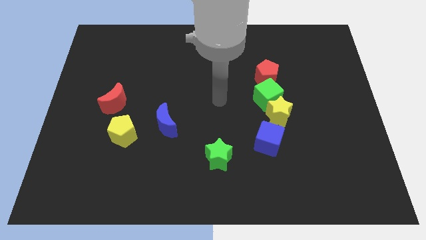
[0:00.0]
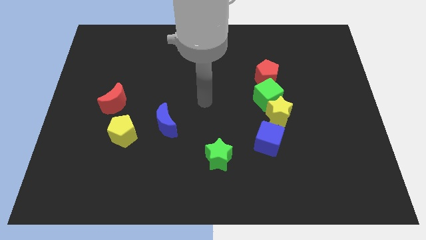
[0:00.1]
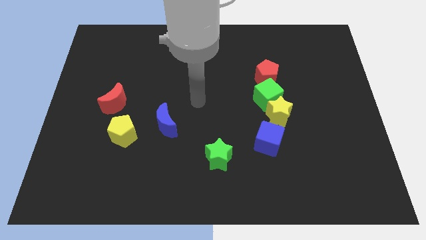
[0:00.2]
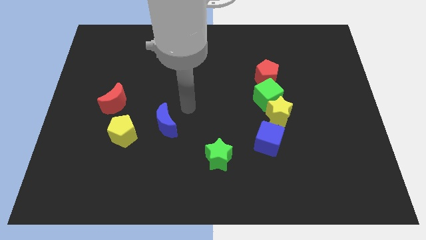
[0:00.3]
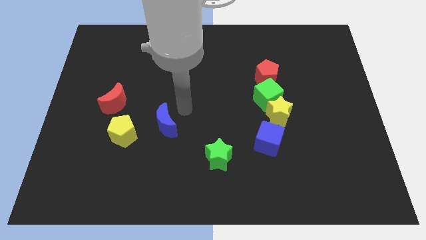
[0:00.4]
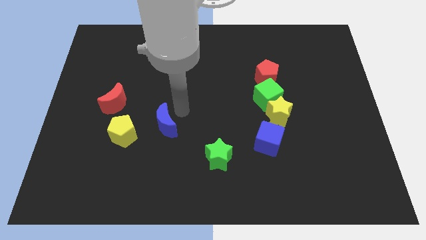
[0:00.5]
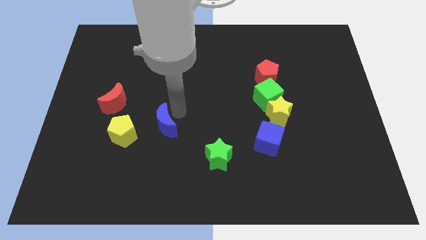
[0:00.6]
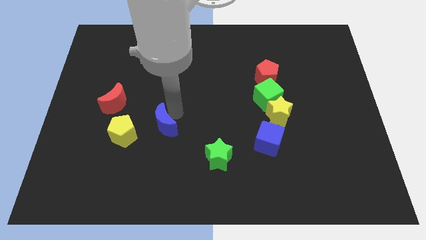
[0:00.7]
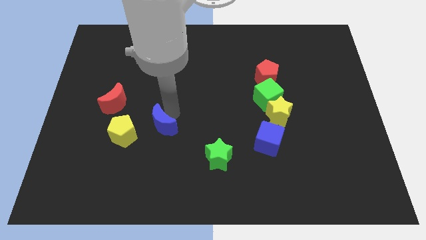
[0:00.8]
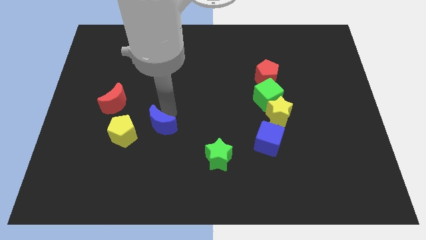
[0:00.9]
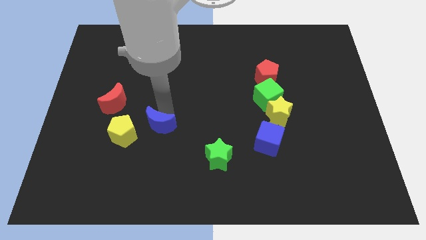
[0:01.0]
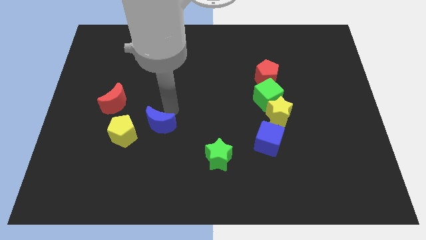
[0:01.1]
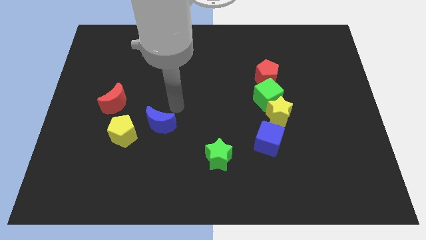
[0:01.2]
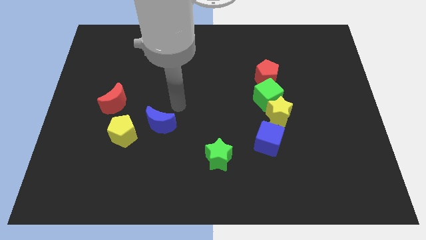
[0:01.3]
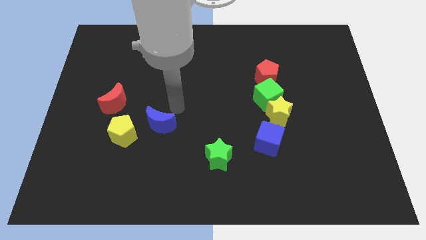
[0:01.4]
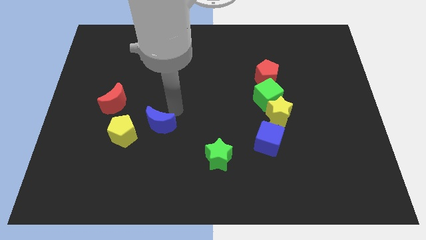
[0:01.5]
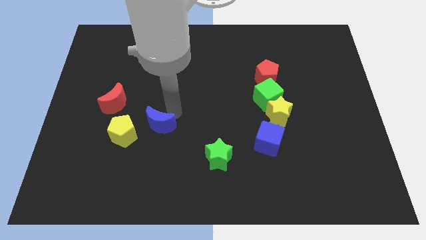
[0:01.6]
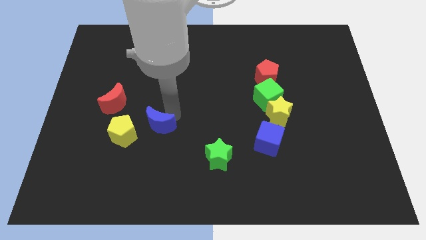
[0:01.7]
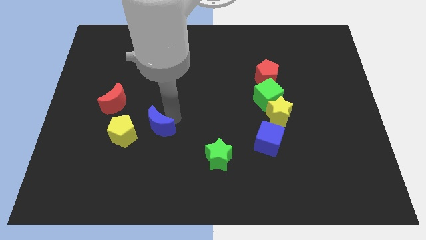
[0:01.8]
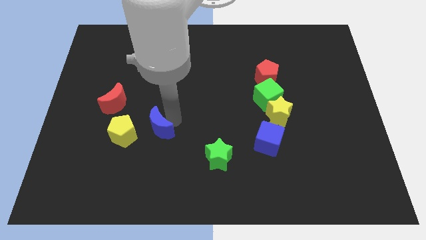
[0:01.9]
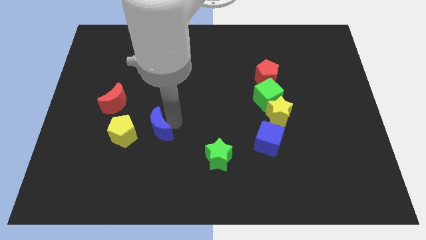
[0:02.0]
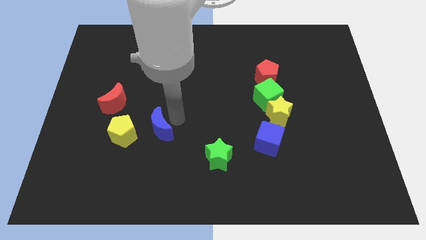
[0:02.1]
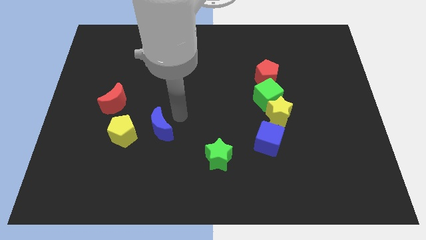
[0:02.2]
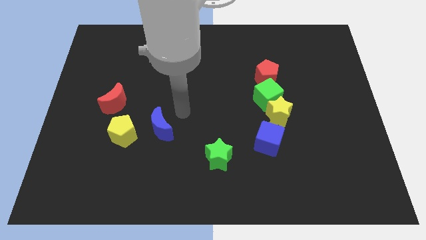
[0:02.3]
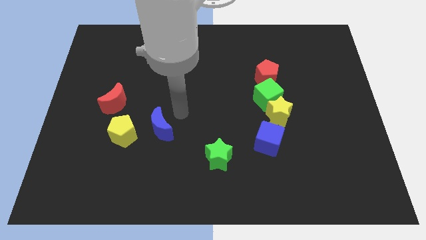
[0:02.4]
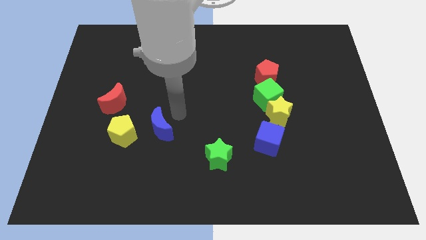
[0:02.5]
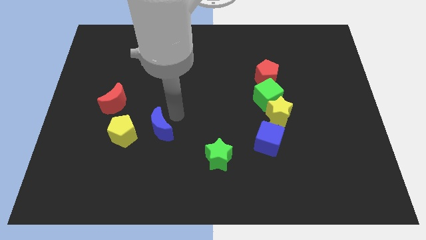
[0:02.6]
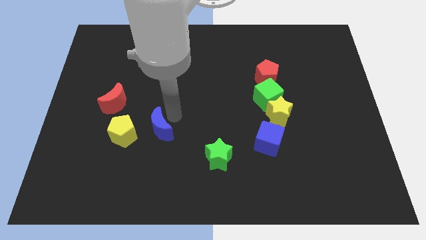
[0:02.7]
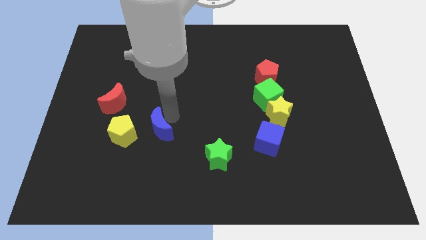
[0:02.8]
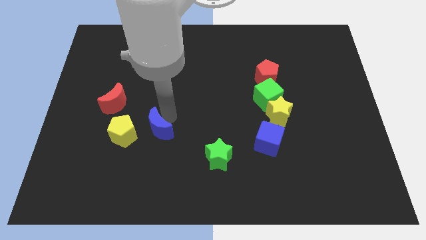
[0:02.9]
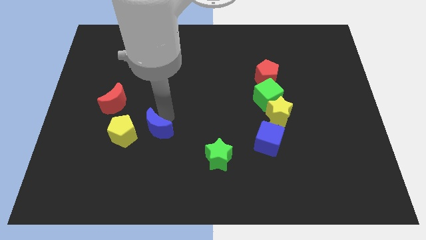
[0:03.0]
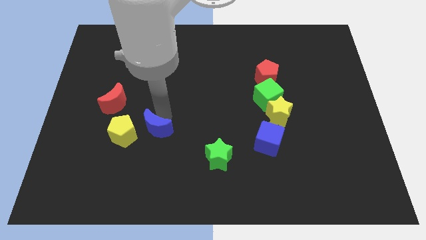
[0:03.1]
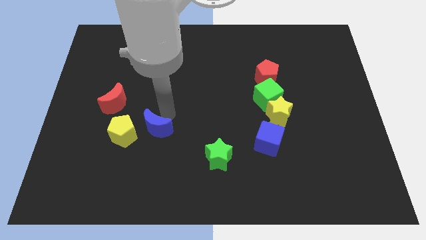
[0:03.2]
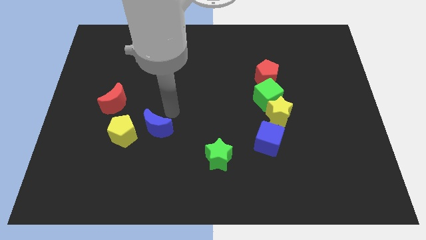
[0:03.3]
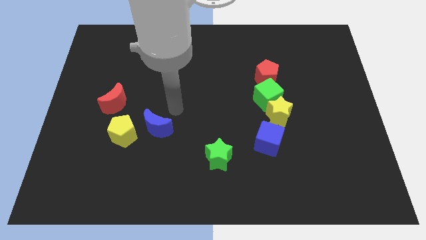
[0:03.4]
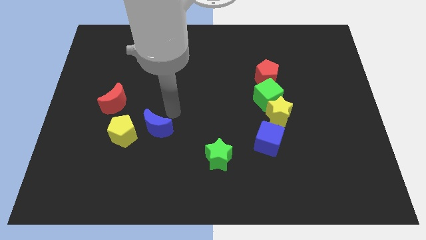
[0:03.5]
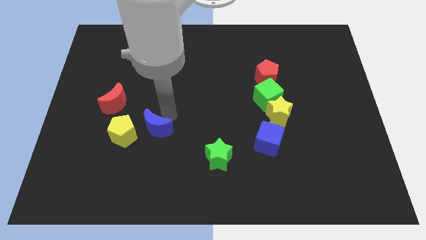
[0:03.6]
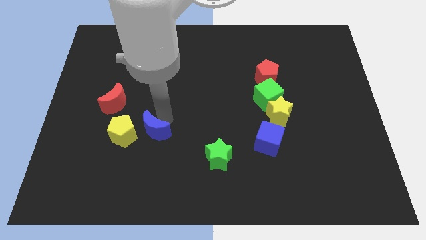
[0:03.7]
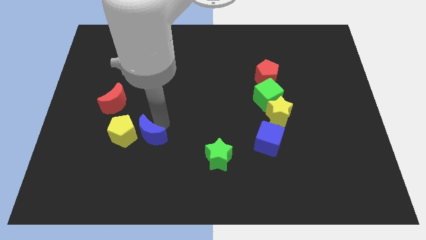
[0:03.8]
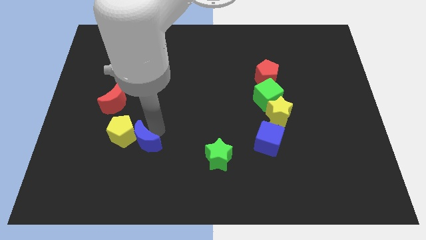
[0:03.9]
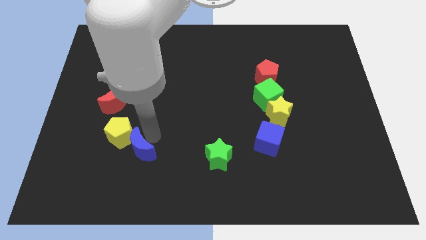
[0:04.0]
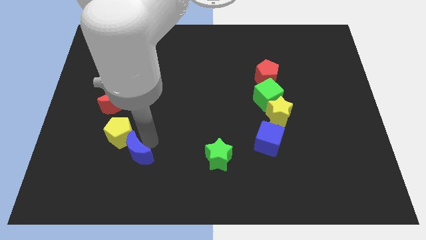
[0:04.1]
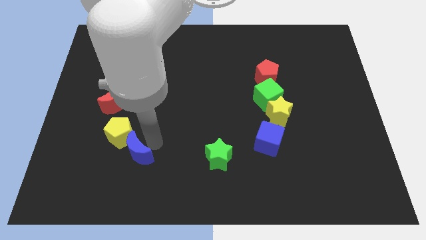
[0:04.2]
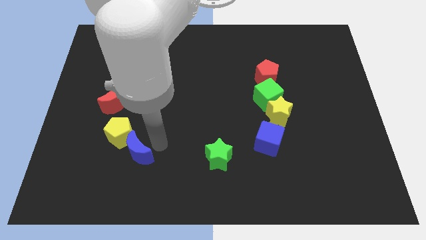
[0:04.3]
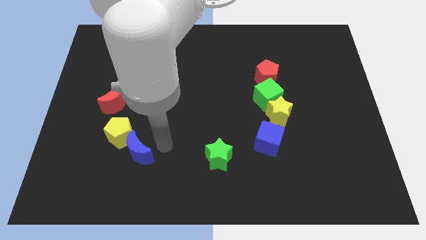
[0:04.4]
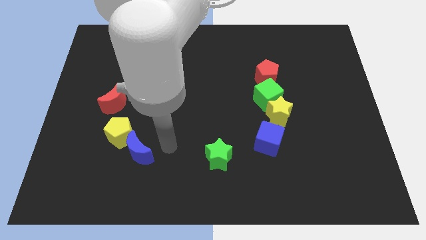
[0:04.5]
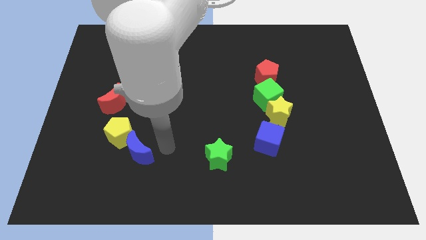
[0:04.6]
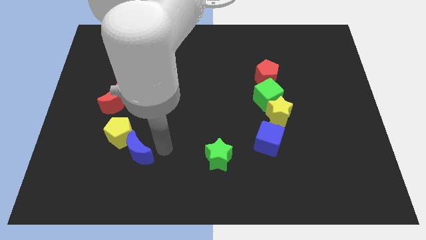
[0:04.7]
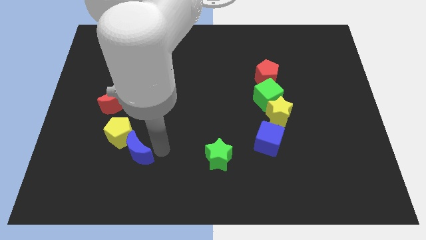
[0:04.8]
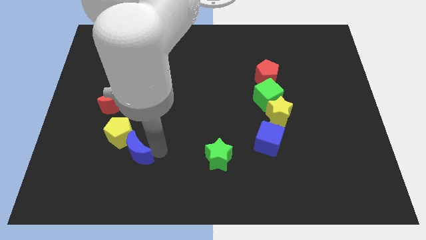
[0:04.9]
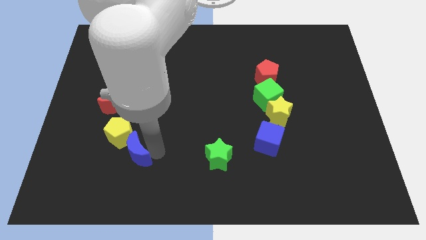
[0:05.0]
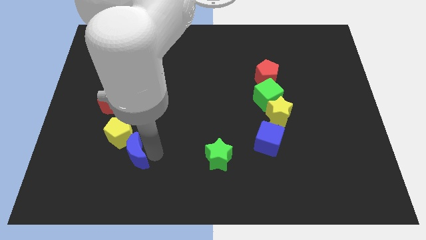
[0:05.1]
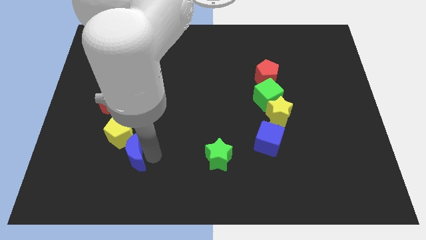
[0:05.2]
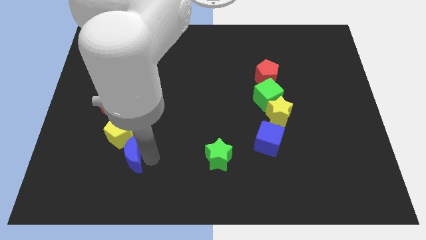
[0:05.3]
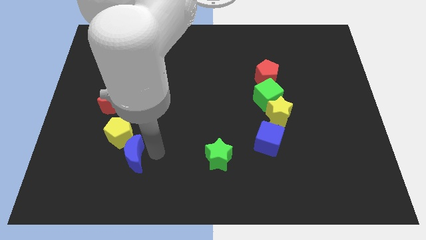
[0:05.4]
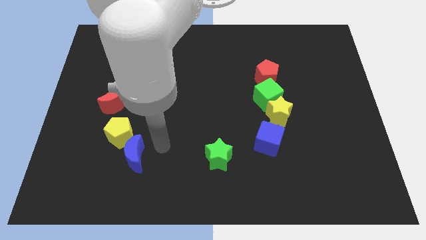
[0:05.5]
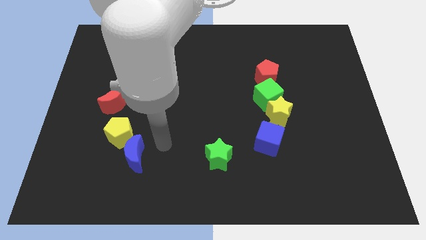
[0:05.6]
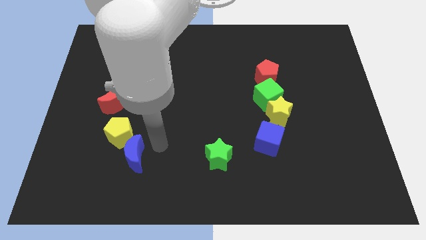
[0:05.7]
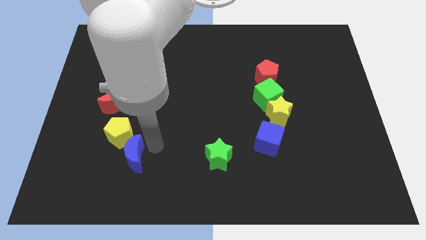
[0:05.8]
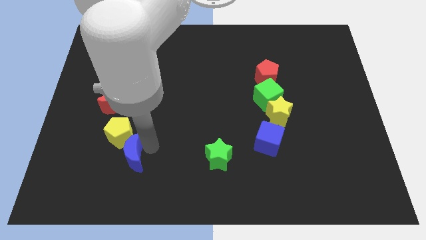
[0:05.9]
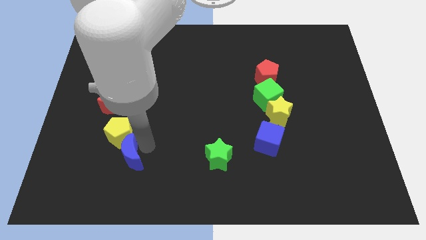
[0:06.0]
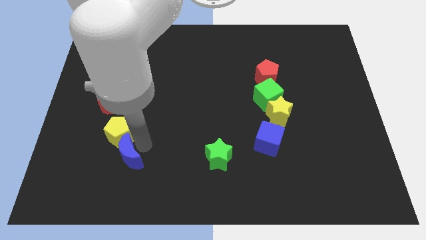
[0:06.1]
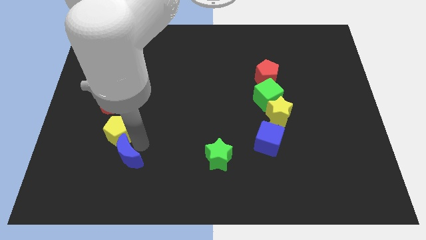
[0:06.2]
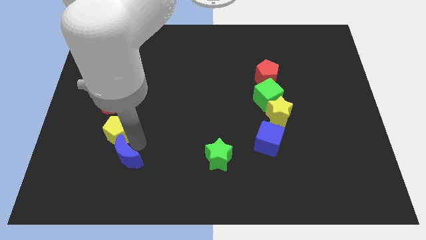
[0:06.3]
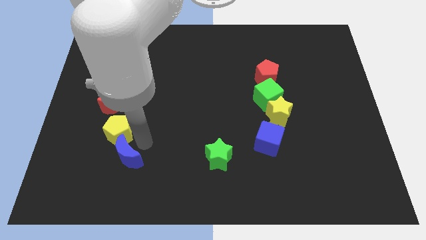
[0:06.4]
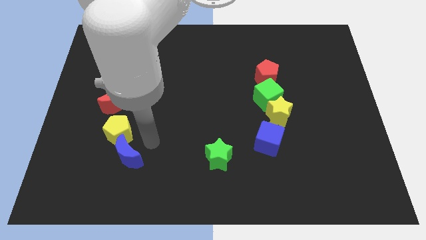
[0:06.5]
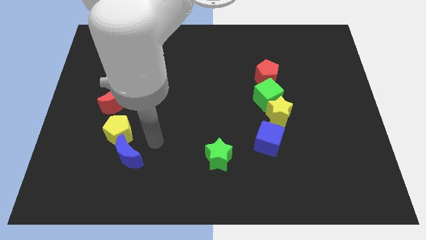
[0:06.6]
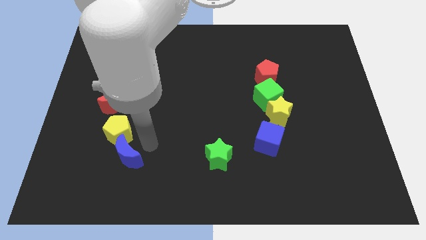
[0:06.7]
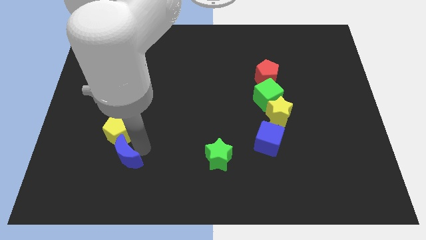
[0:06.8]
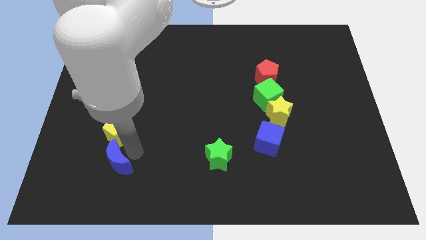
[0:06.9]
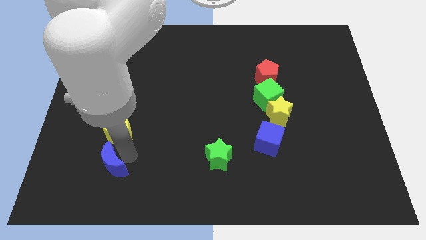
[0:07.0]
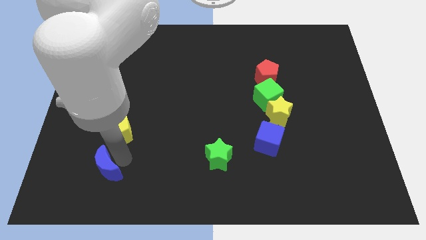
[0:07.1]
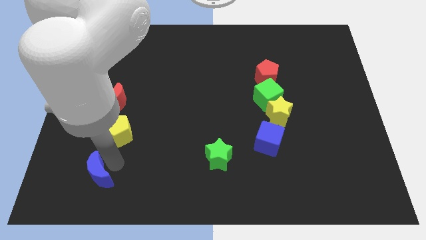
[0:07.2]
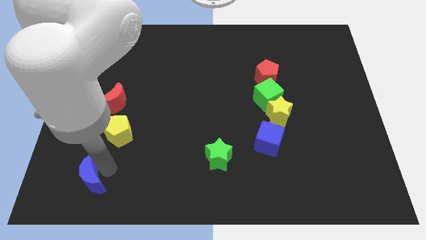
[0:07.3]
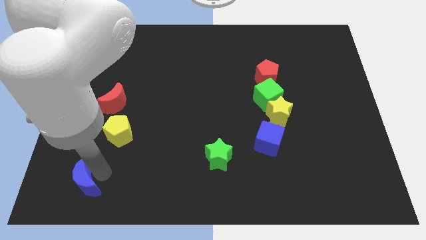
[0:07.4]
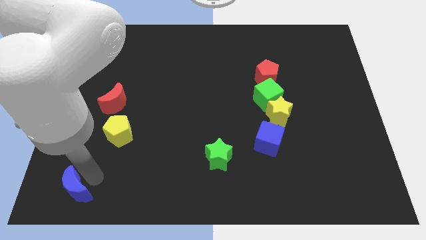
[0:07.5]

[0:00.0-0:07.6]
slide the blue moon to the bottom left corner
